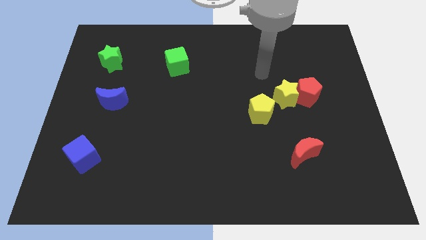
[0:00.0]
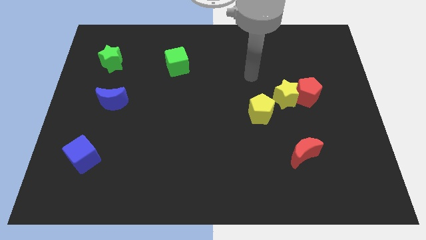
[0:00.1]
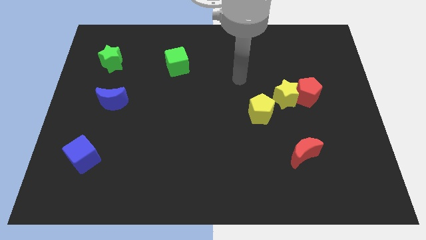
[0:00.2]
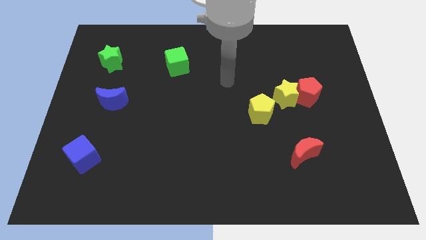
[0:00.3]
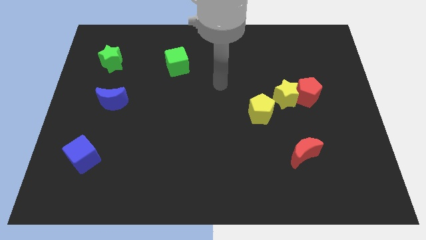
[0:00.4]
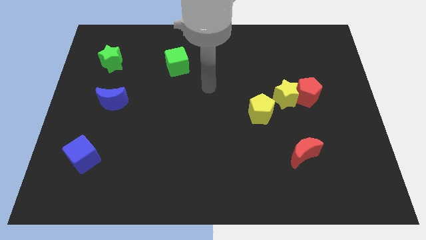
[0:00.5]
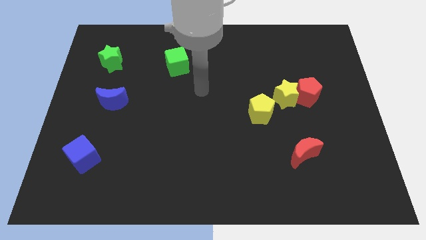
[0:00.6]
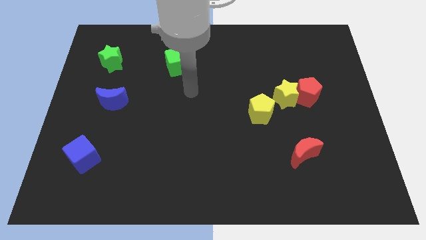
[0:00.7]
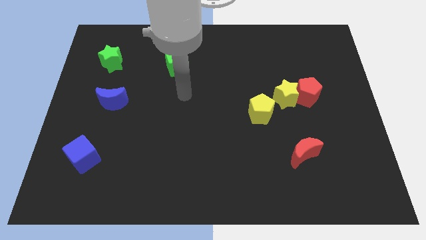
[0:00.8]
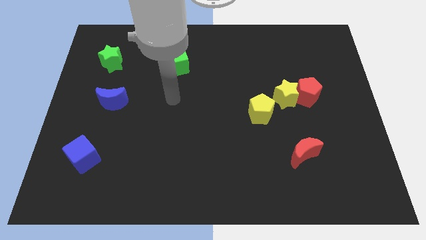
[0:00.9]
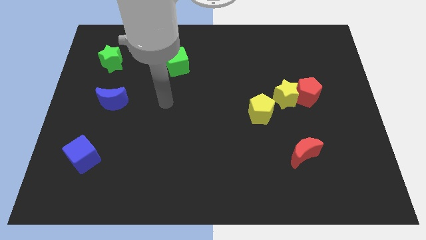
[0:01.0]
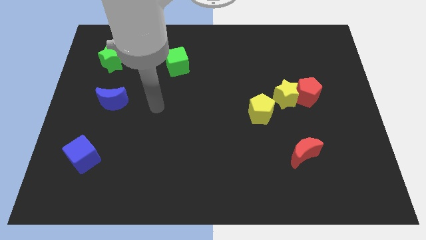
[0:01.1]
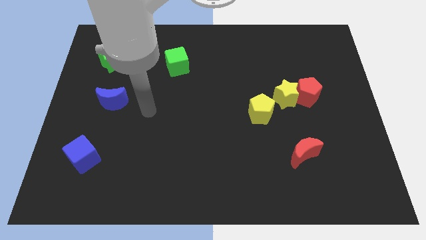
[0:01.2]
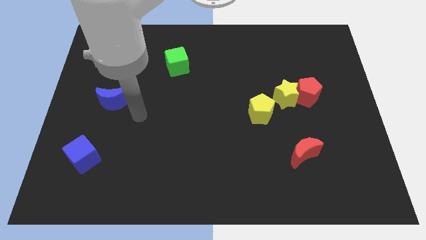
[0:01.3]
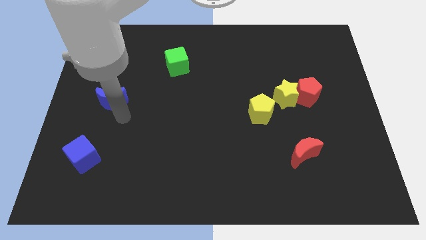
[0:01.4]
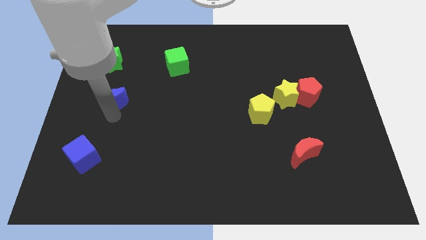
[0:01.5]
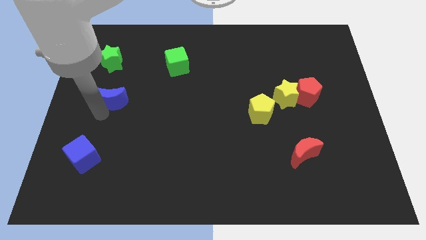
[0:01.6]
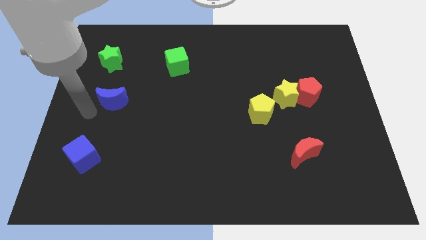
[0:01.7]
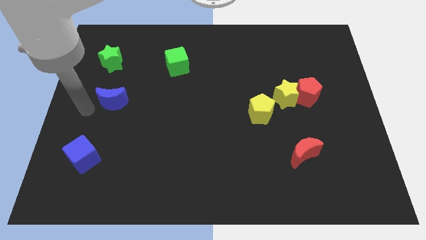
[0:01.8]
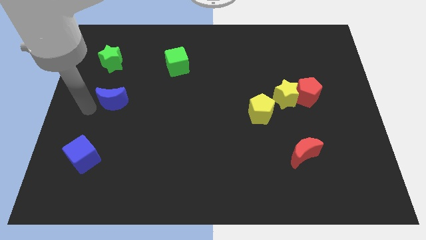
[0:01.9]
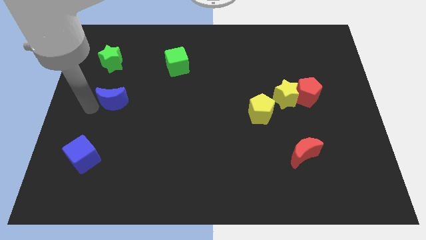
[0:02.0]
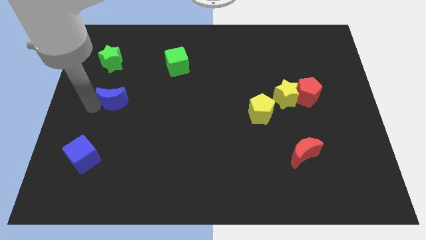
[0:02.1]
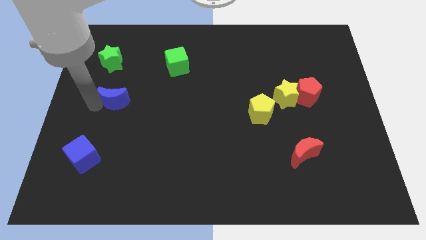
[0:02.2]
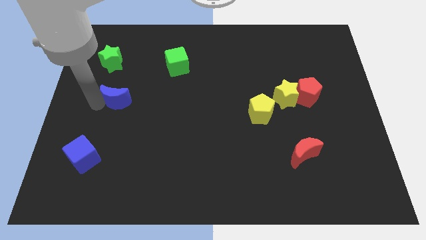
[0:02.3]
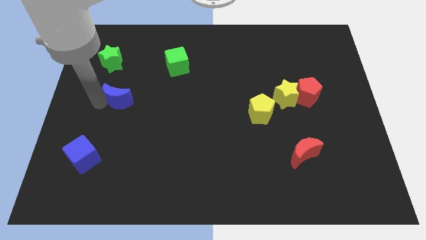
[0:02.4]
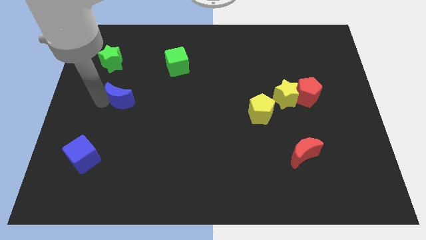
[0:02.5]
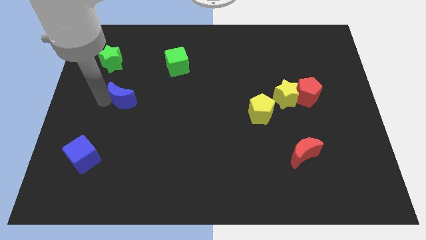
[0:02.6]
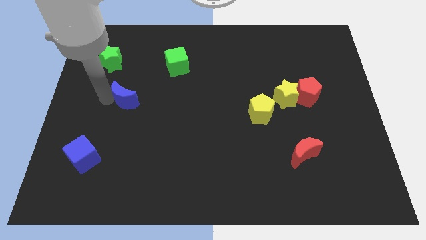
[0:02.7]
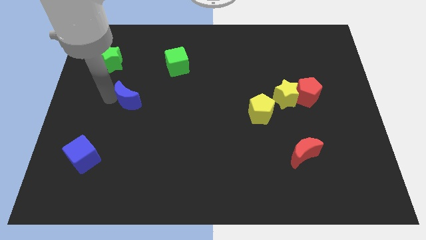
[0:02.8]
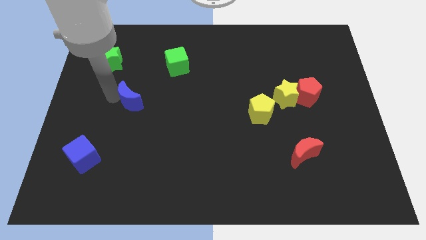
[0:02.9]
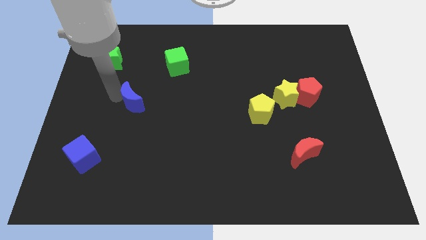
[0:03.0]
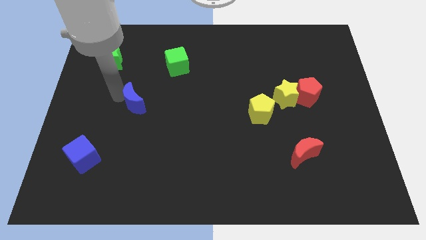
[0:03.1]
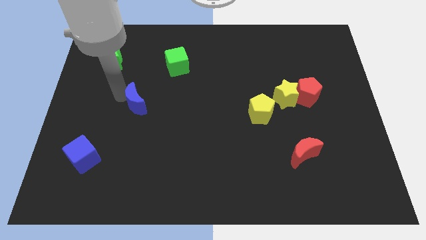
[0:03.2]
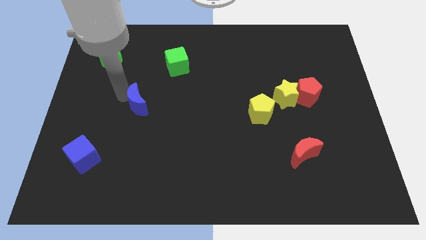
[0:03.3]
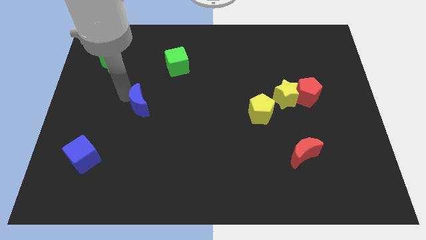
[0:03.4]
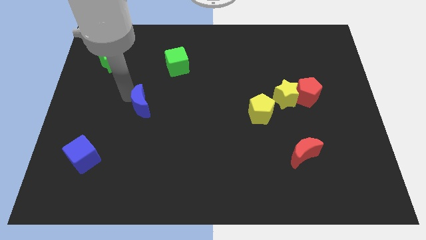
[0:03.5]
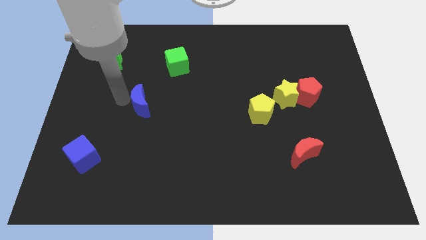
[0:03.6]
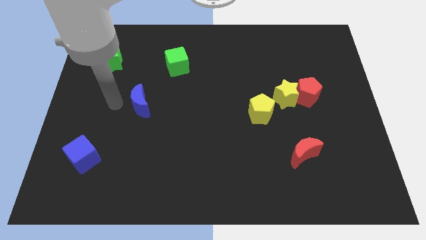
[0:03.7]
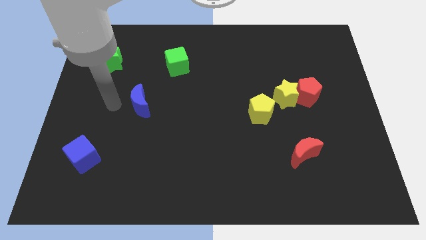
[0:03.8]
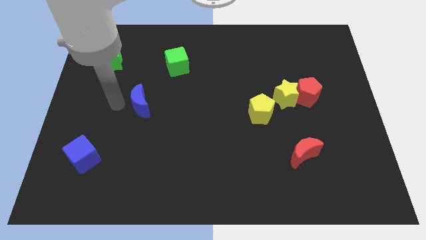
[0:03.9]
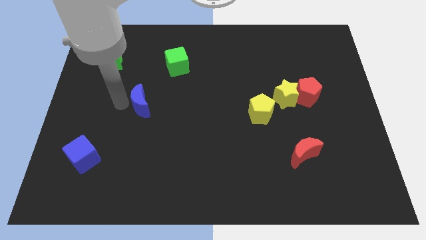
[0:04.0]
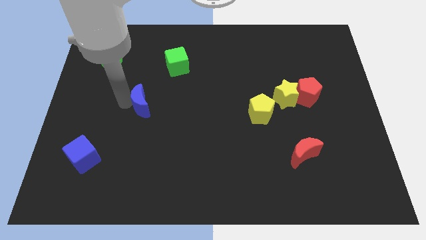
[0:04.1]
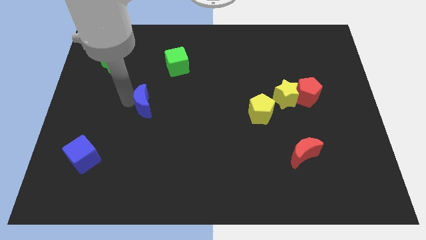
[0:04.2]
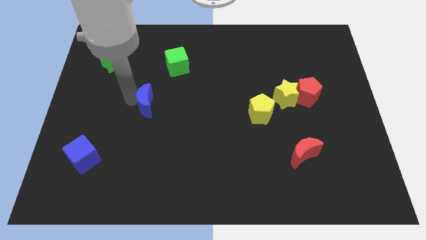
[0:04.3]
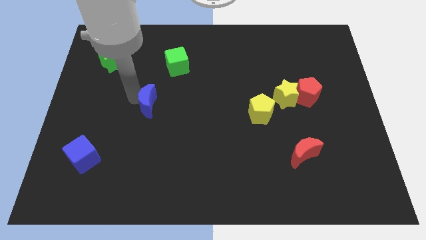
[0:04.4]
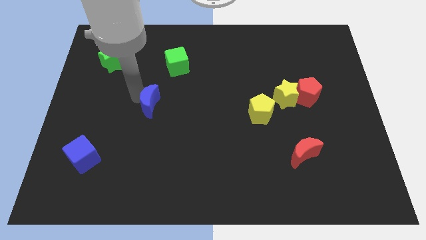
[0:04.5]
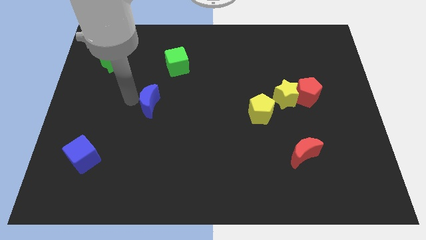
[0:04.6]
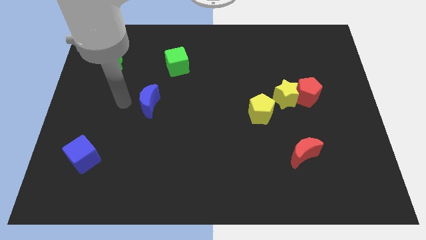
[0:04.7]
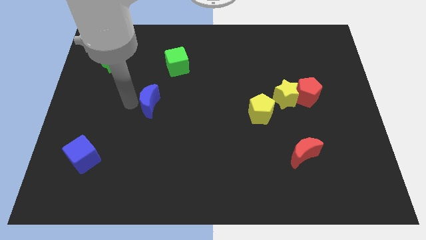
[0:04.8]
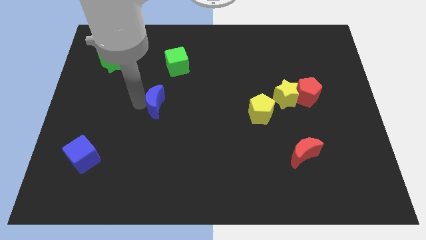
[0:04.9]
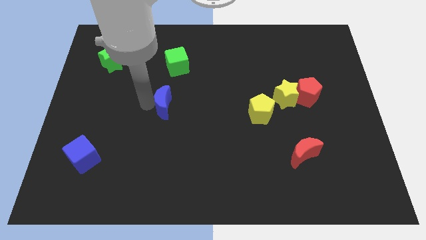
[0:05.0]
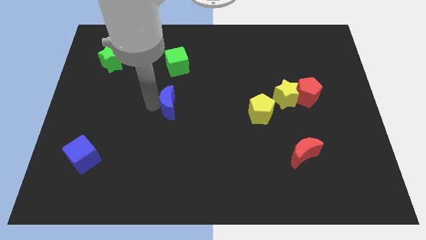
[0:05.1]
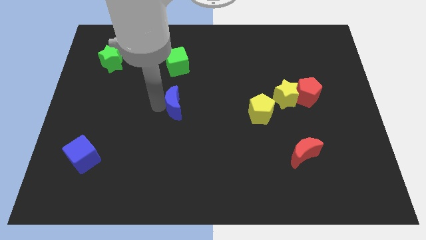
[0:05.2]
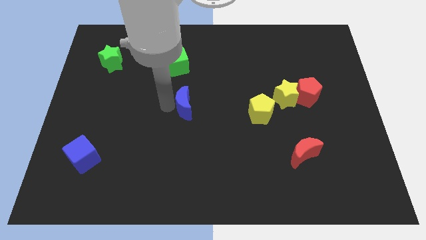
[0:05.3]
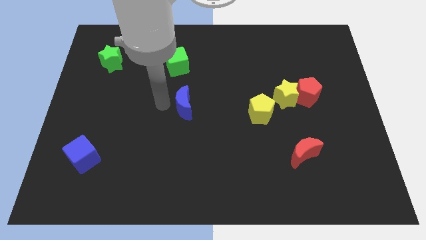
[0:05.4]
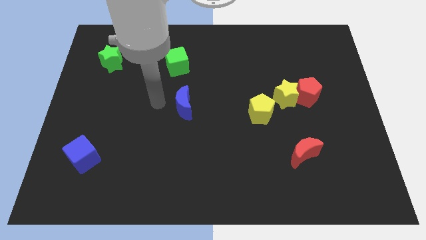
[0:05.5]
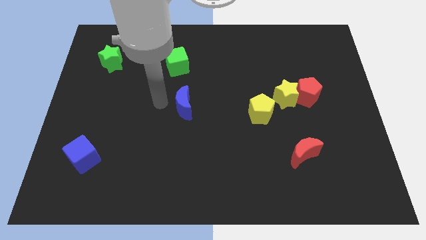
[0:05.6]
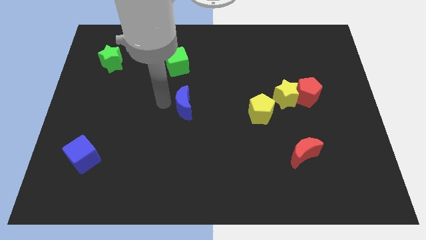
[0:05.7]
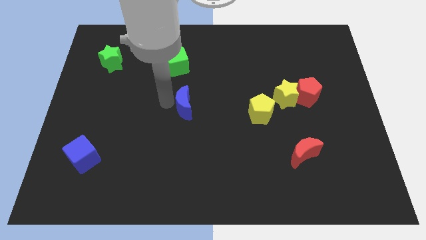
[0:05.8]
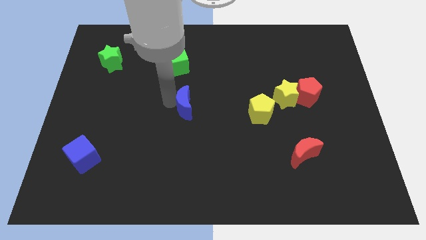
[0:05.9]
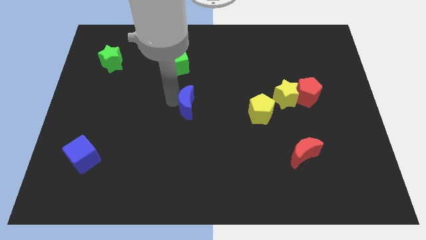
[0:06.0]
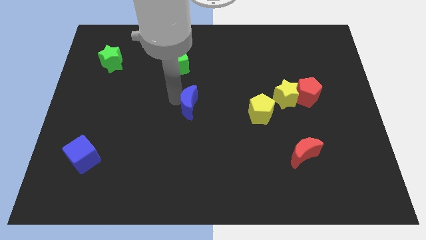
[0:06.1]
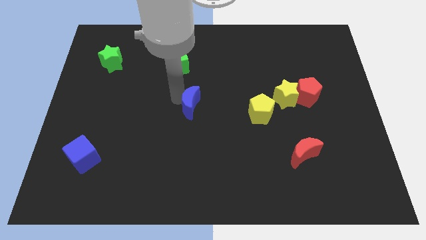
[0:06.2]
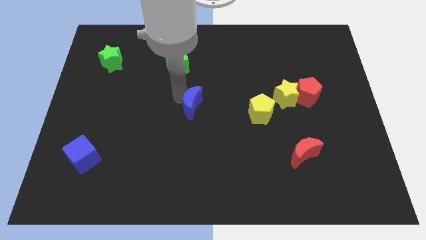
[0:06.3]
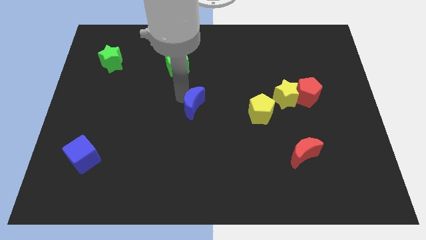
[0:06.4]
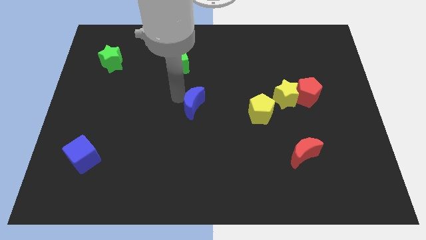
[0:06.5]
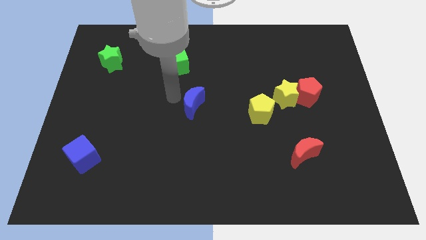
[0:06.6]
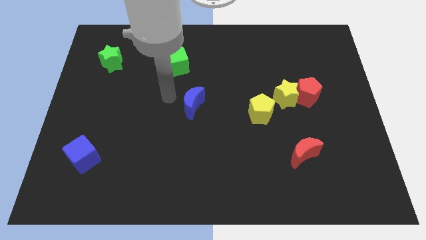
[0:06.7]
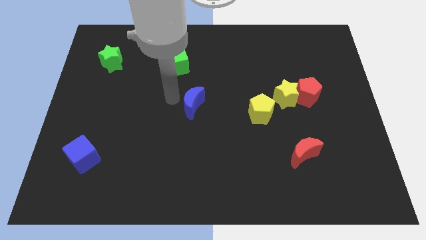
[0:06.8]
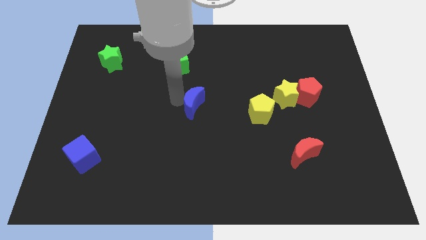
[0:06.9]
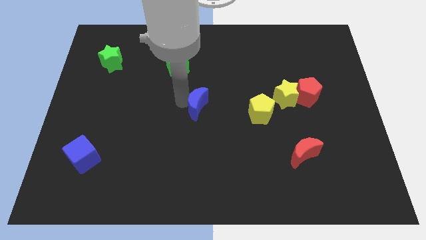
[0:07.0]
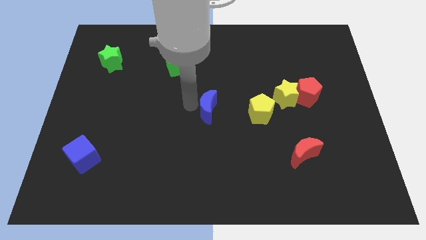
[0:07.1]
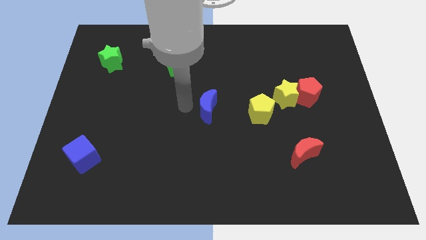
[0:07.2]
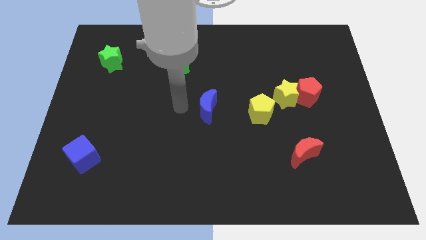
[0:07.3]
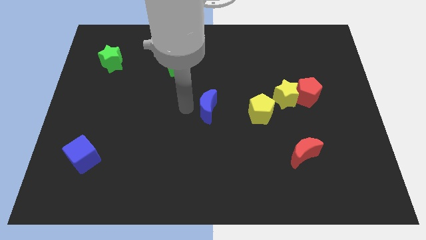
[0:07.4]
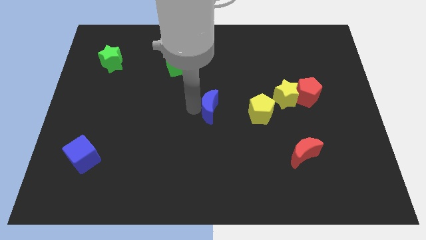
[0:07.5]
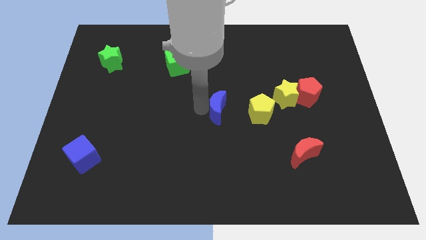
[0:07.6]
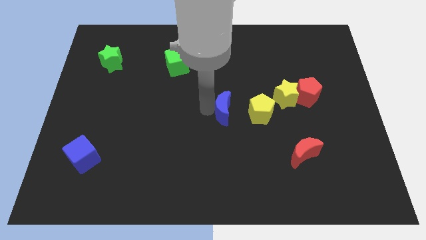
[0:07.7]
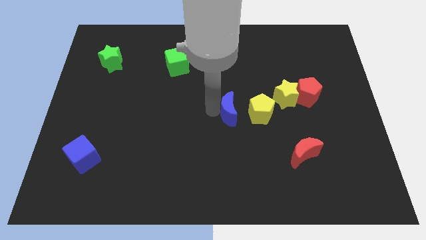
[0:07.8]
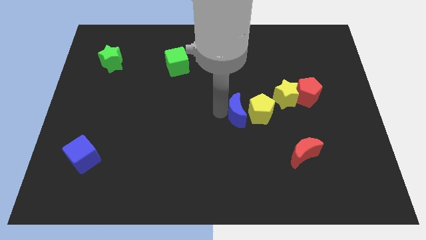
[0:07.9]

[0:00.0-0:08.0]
move the blue moon close to the yellow pentagon
